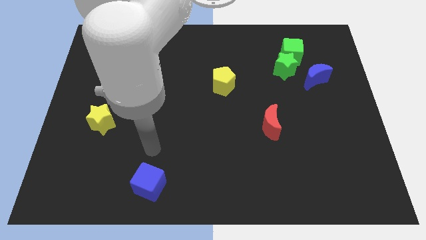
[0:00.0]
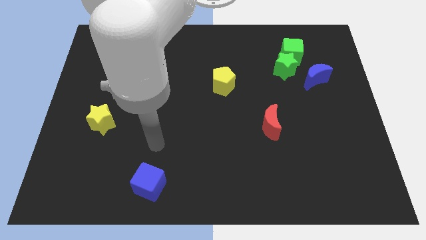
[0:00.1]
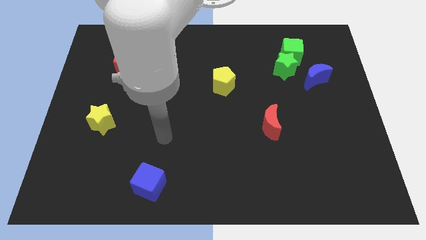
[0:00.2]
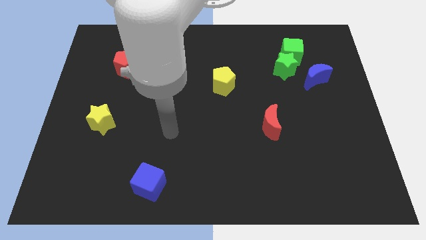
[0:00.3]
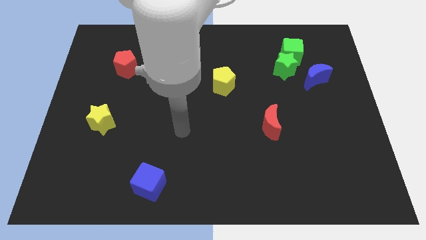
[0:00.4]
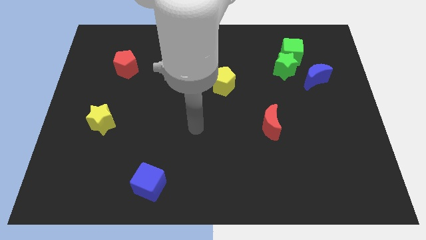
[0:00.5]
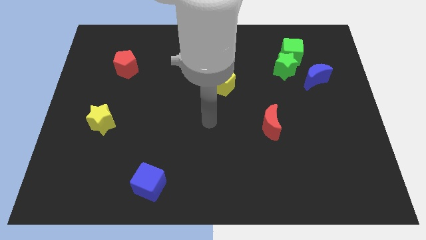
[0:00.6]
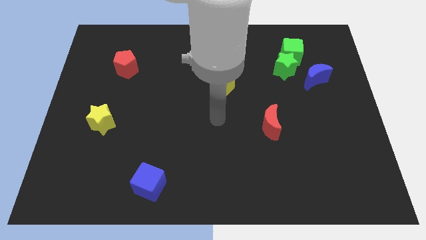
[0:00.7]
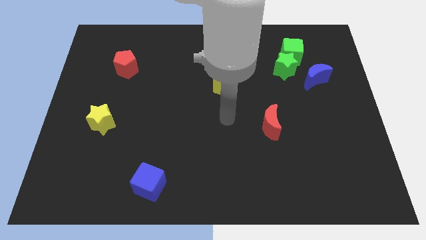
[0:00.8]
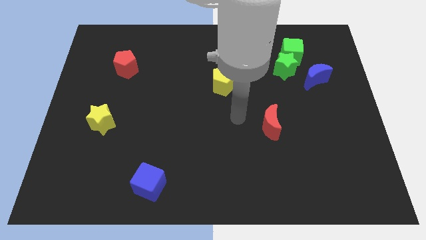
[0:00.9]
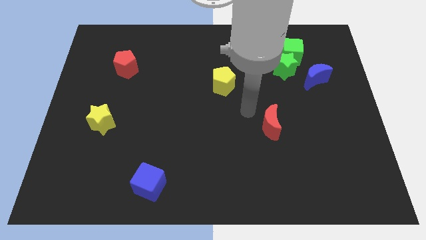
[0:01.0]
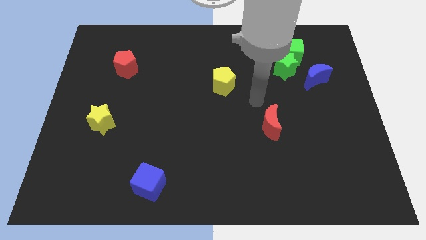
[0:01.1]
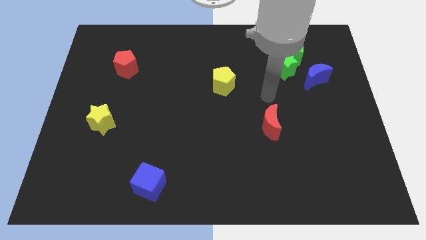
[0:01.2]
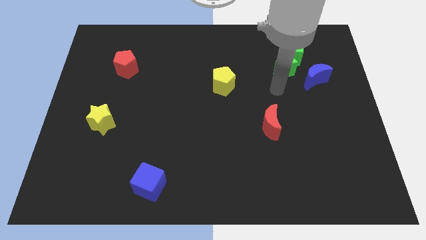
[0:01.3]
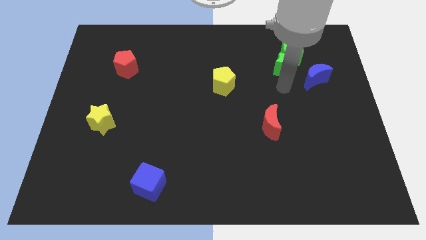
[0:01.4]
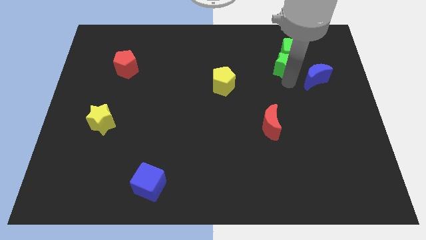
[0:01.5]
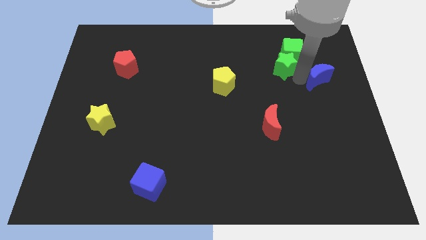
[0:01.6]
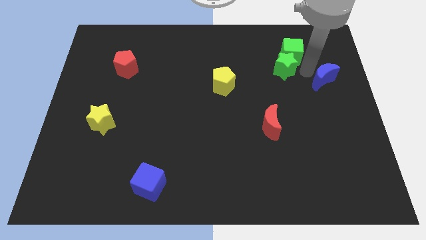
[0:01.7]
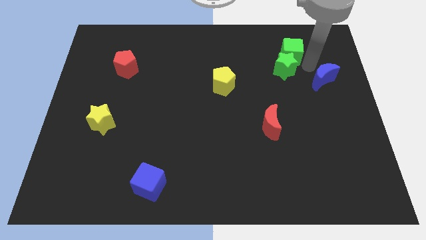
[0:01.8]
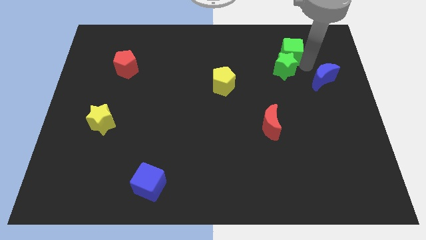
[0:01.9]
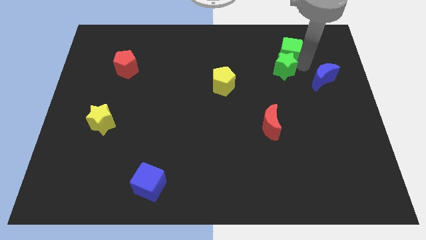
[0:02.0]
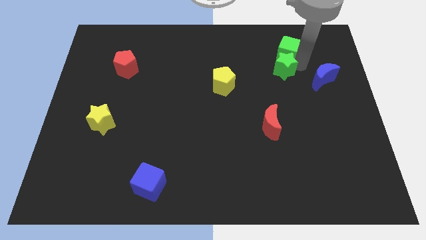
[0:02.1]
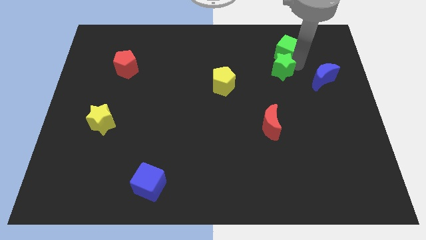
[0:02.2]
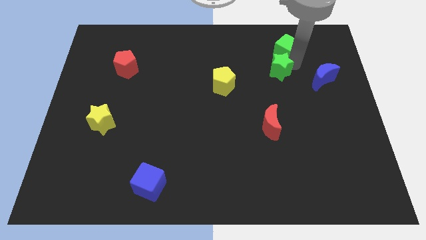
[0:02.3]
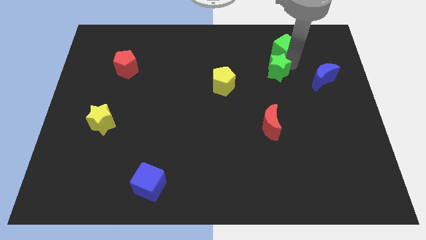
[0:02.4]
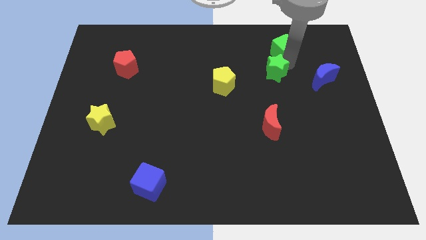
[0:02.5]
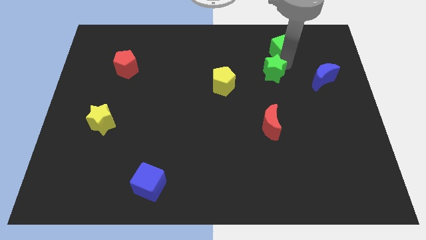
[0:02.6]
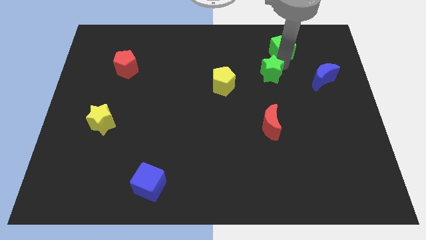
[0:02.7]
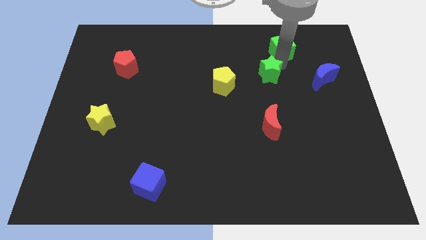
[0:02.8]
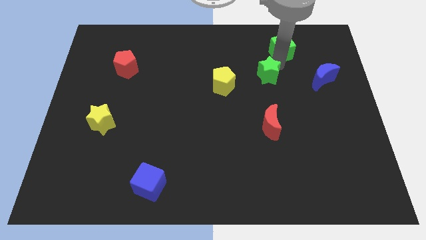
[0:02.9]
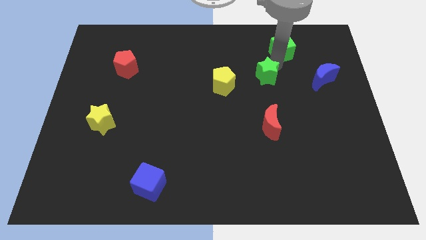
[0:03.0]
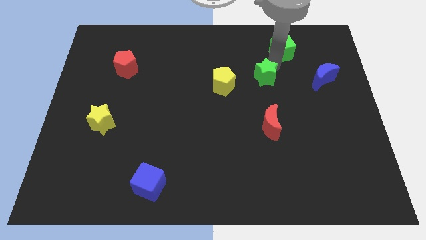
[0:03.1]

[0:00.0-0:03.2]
move the green star away from the green cube and blue moon

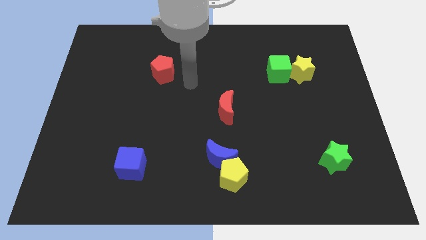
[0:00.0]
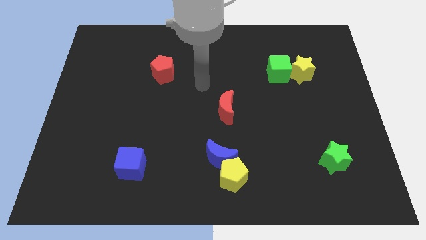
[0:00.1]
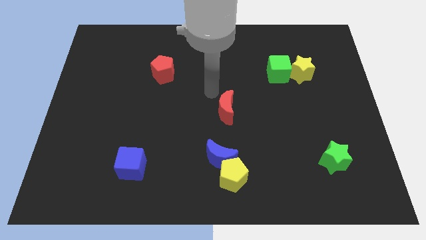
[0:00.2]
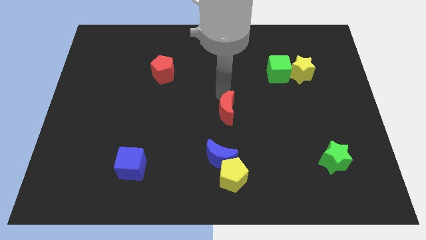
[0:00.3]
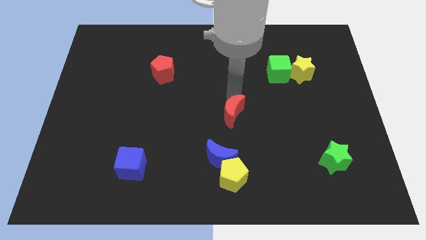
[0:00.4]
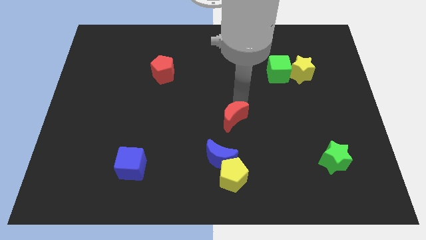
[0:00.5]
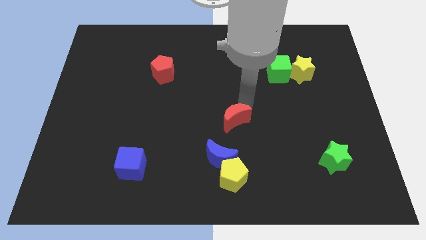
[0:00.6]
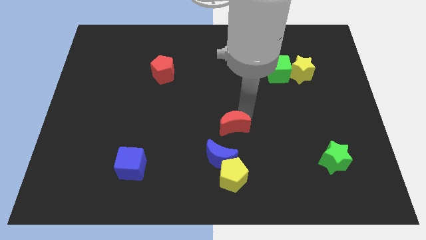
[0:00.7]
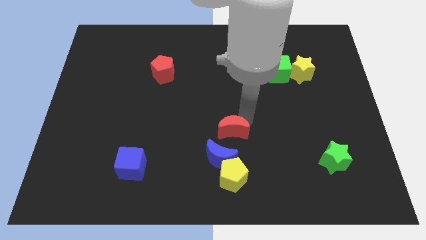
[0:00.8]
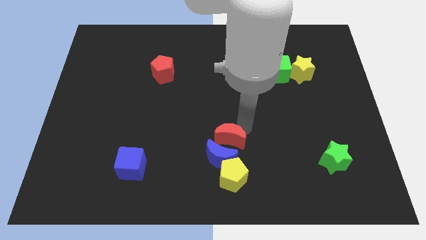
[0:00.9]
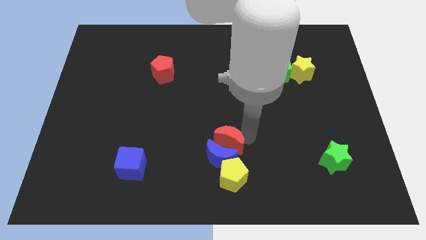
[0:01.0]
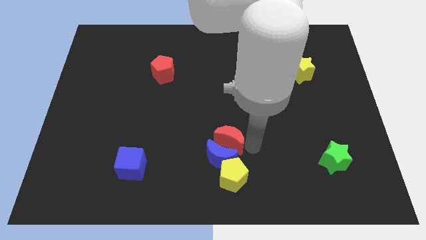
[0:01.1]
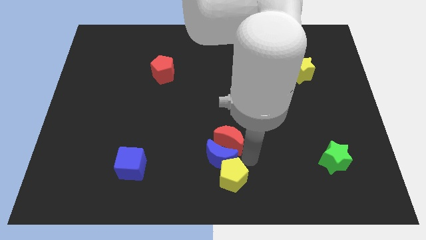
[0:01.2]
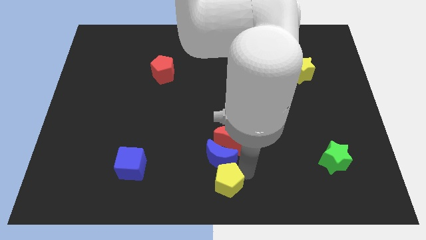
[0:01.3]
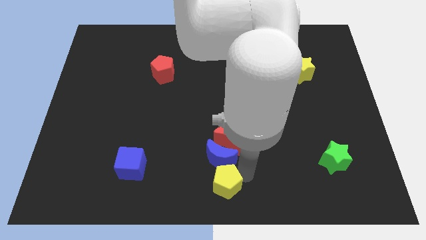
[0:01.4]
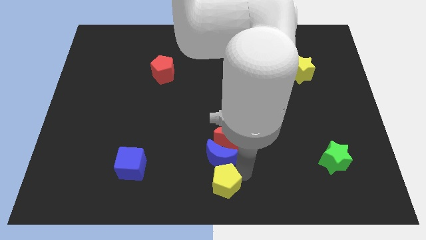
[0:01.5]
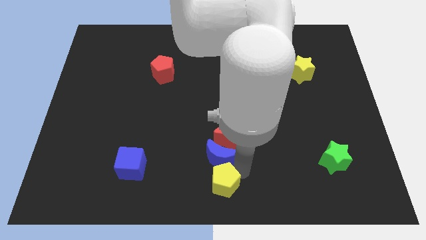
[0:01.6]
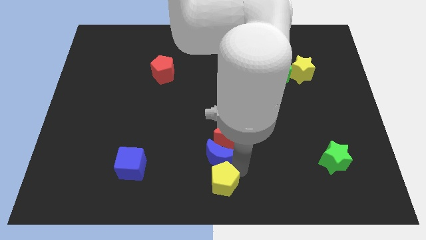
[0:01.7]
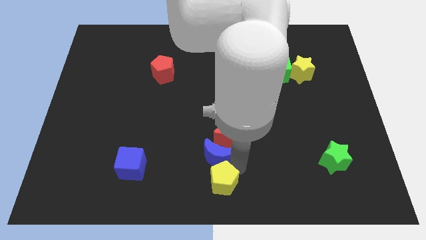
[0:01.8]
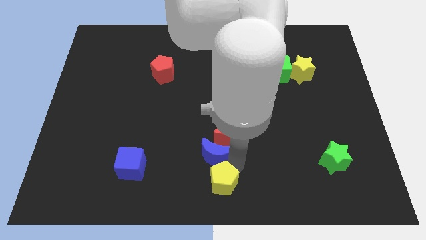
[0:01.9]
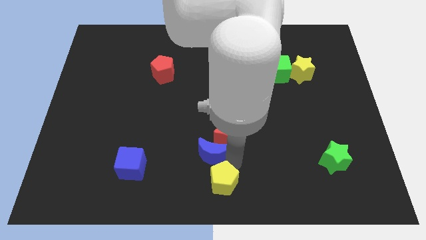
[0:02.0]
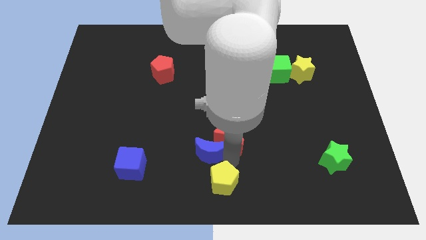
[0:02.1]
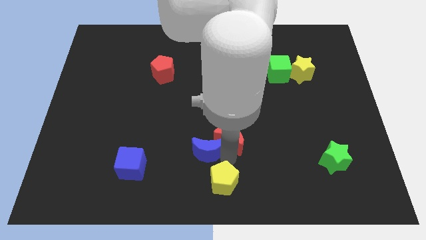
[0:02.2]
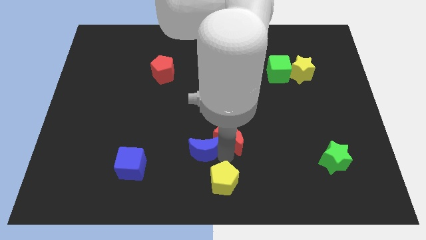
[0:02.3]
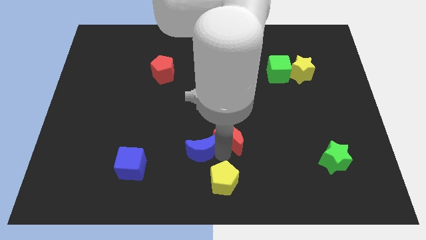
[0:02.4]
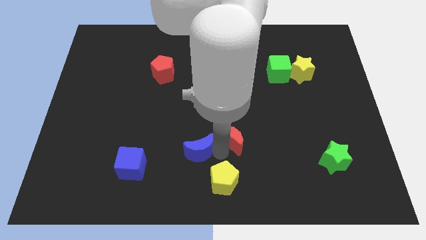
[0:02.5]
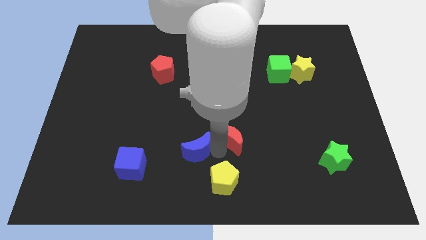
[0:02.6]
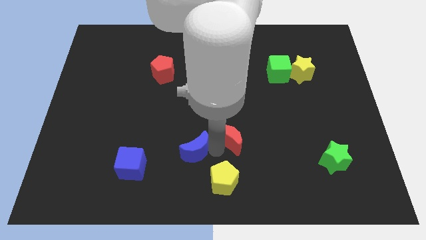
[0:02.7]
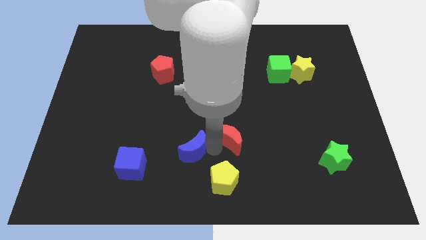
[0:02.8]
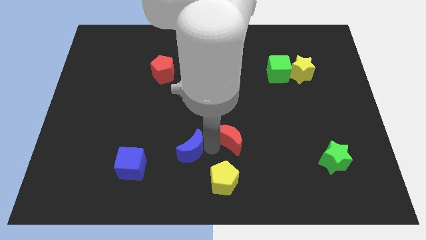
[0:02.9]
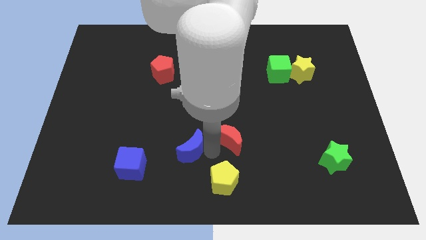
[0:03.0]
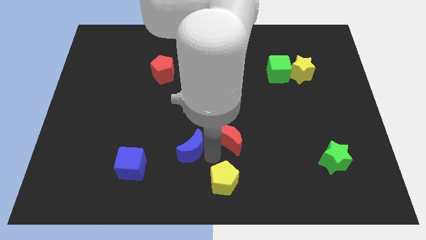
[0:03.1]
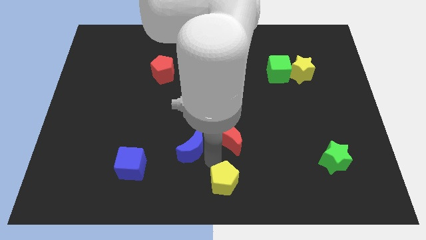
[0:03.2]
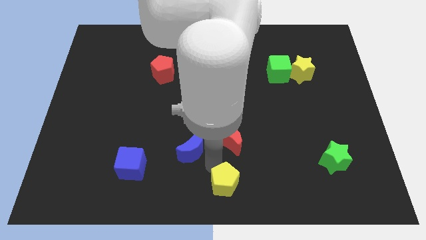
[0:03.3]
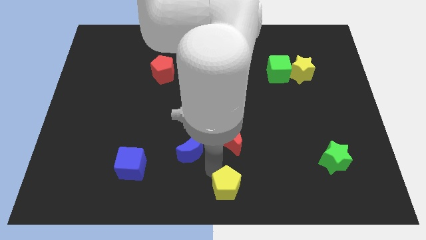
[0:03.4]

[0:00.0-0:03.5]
separate the blue moon from the yellow pentagon

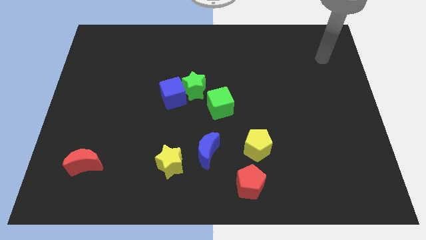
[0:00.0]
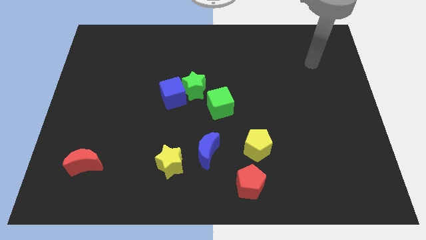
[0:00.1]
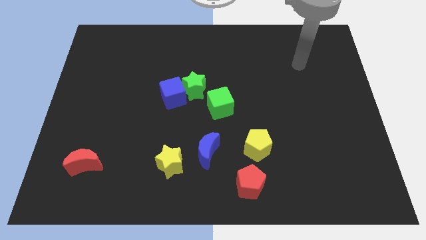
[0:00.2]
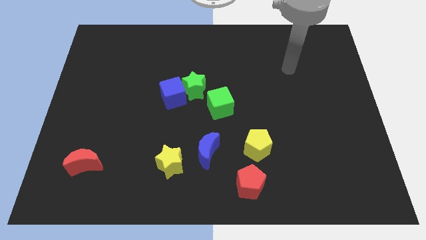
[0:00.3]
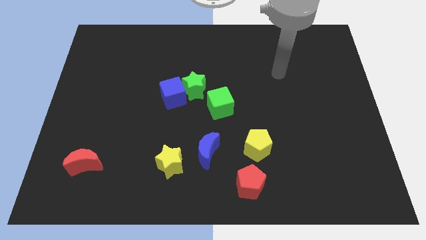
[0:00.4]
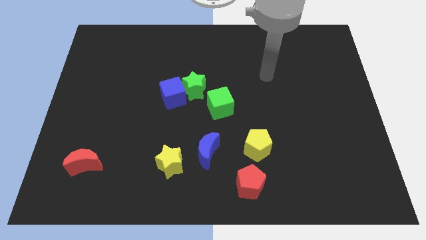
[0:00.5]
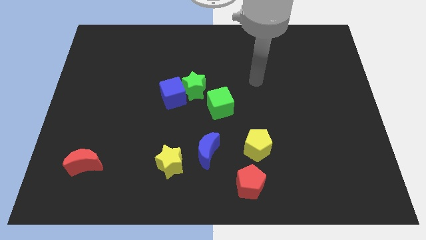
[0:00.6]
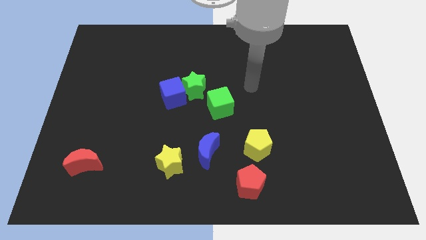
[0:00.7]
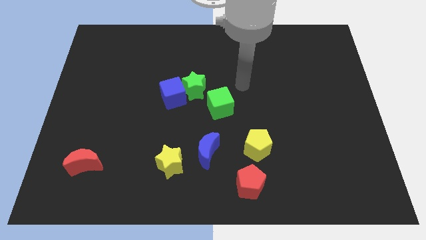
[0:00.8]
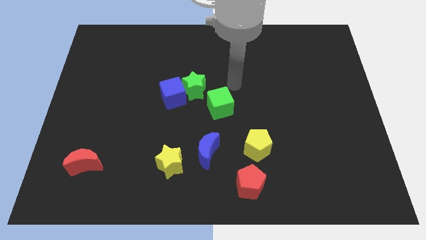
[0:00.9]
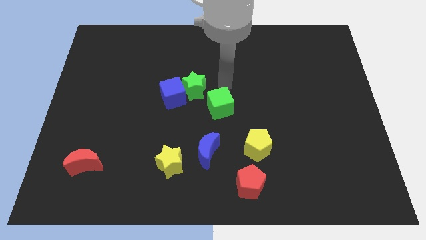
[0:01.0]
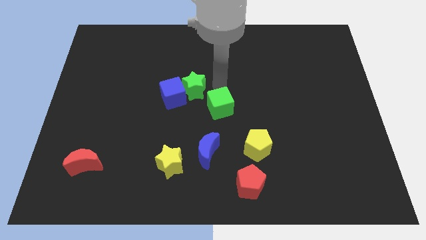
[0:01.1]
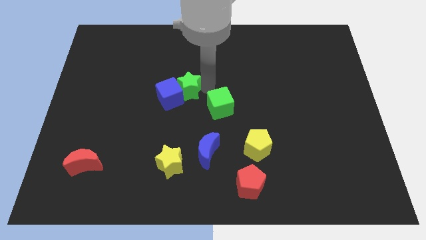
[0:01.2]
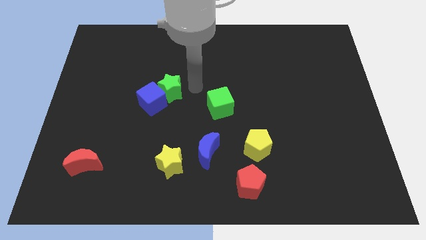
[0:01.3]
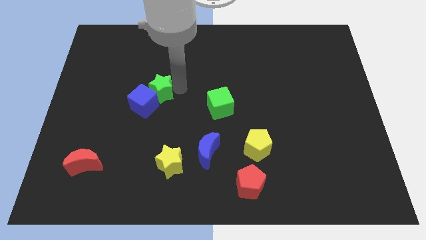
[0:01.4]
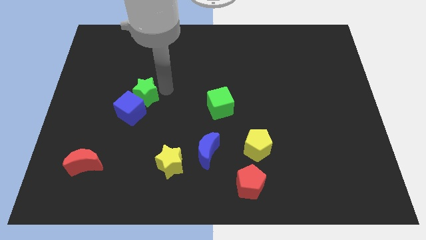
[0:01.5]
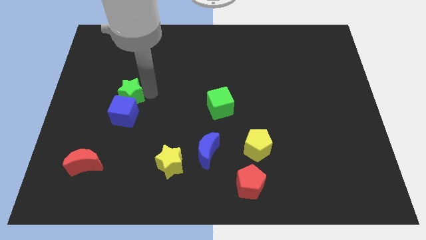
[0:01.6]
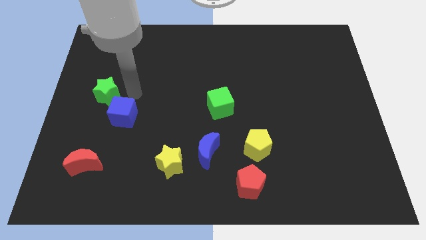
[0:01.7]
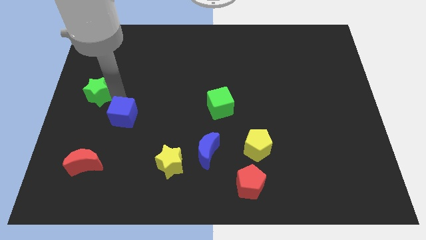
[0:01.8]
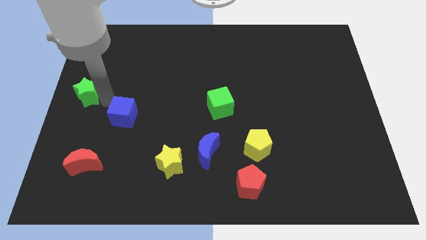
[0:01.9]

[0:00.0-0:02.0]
separate the blue cube from the green star

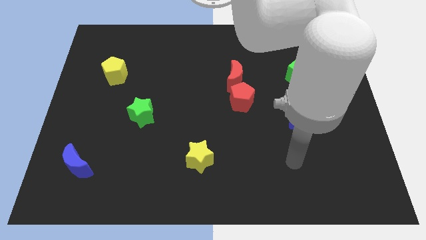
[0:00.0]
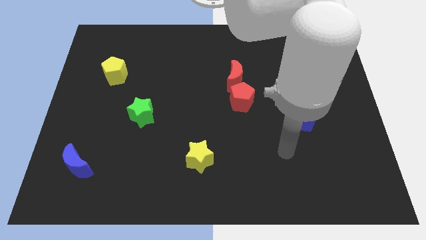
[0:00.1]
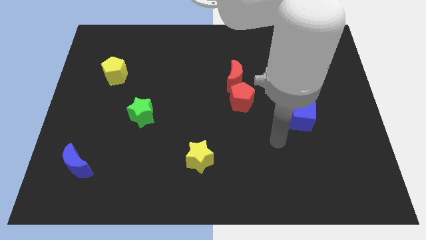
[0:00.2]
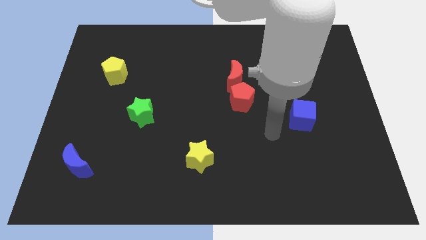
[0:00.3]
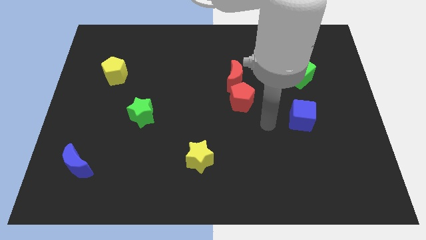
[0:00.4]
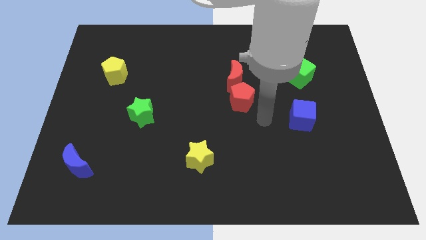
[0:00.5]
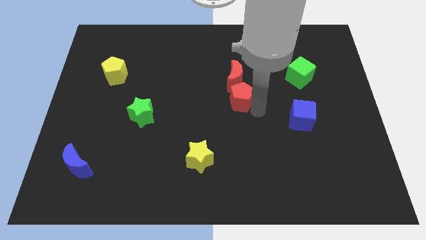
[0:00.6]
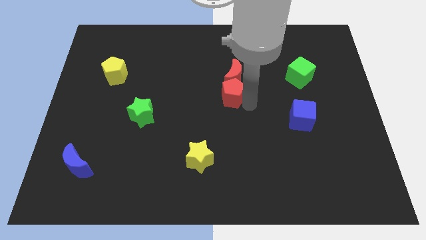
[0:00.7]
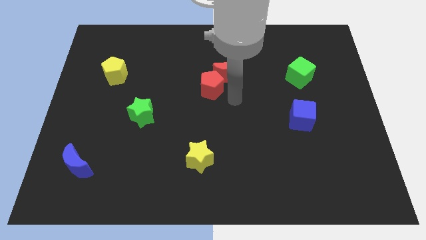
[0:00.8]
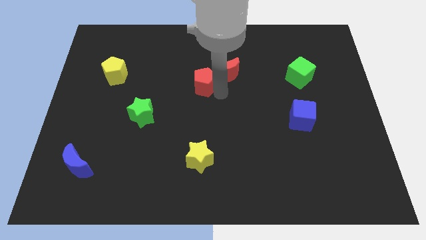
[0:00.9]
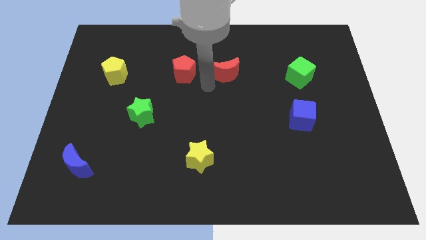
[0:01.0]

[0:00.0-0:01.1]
move the red moon away from the red pentagon
